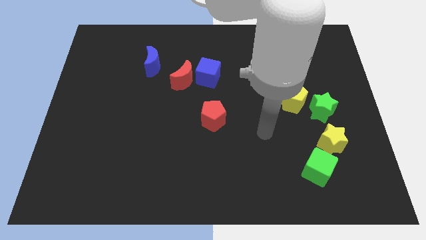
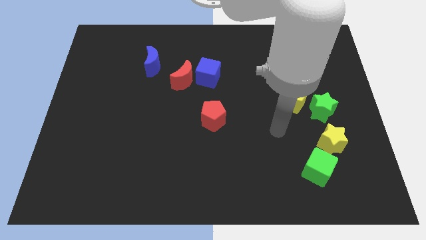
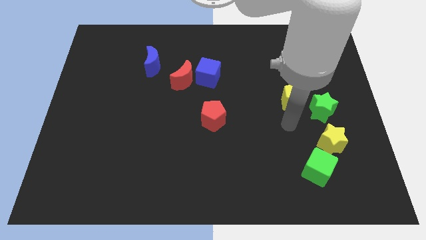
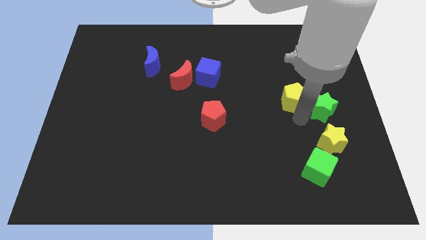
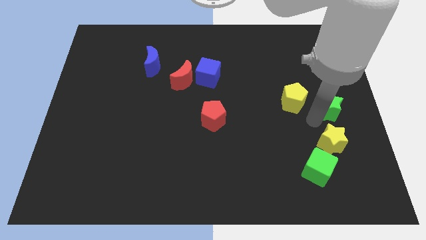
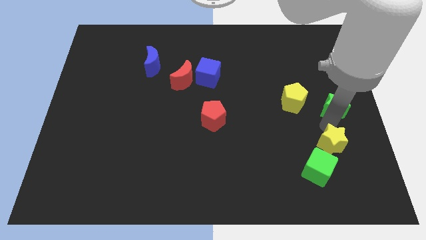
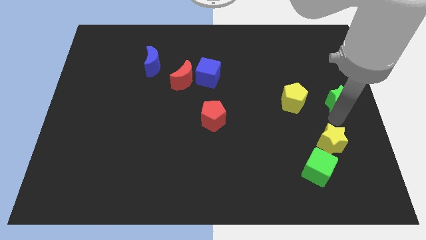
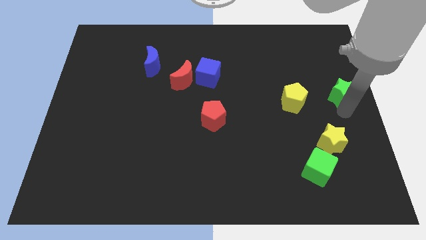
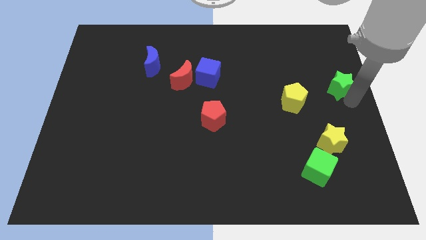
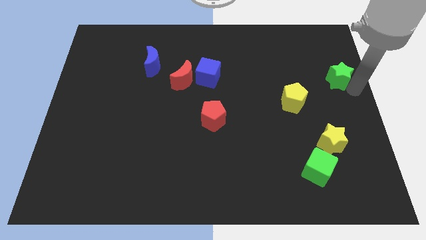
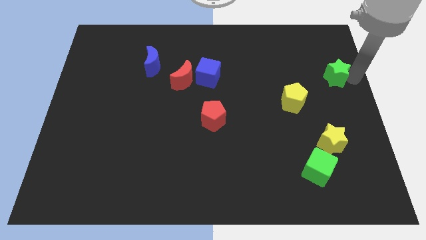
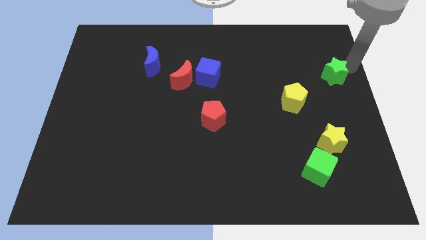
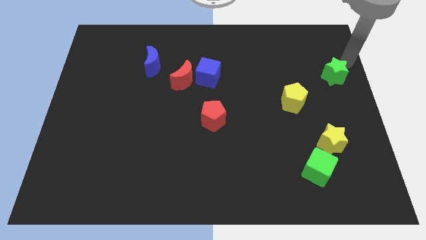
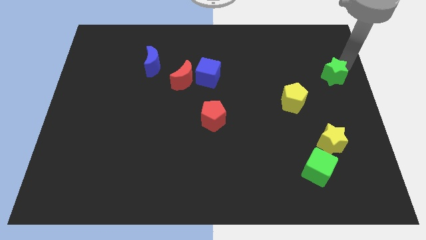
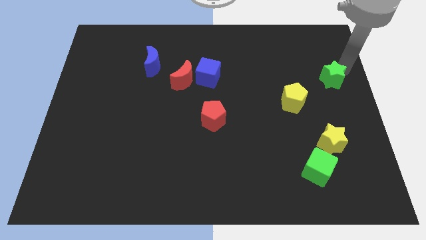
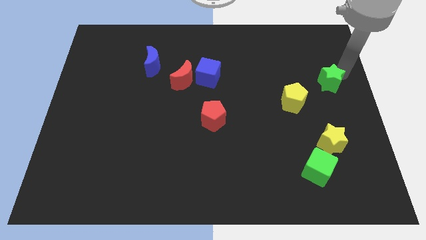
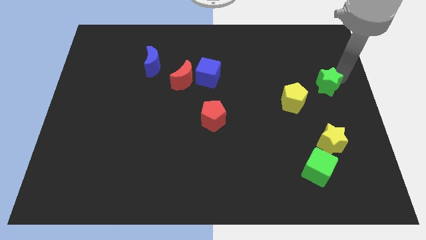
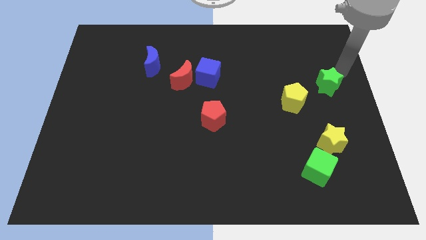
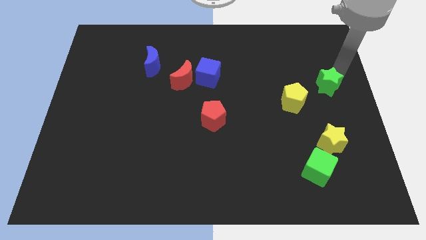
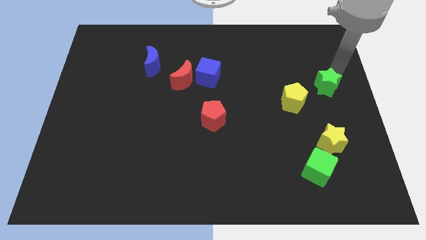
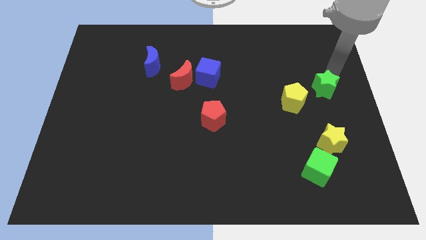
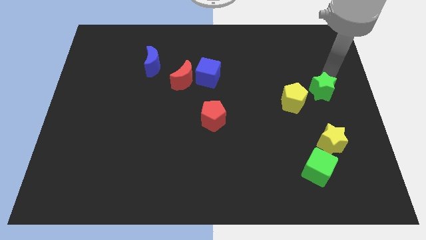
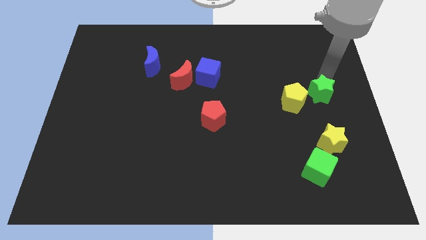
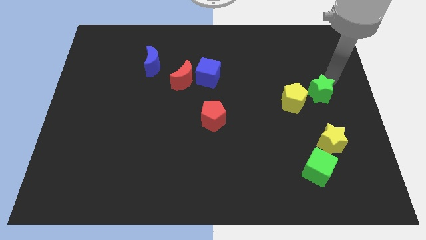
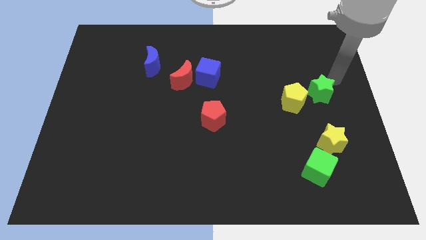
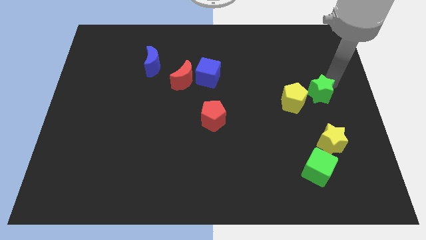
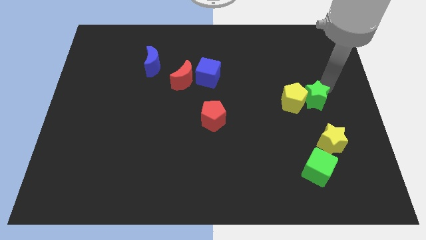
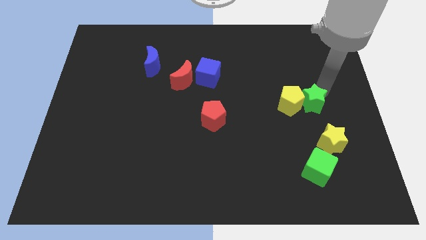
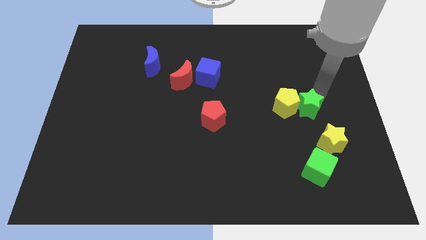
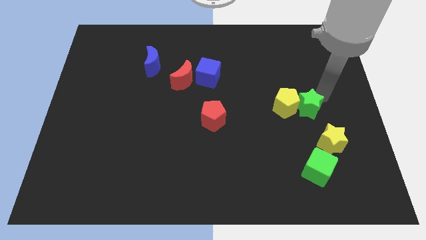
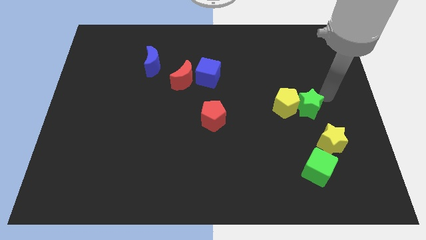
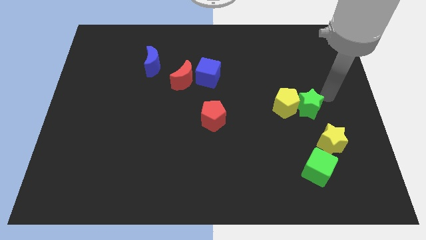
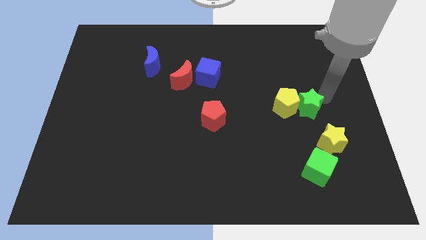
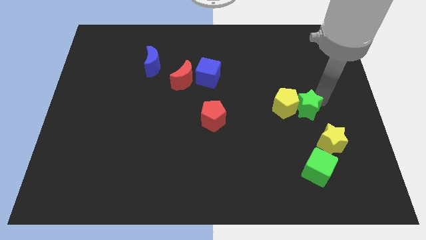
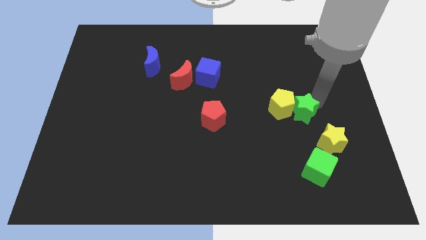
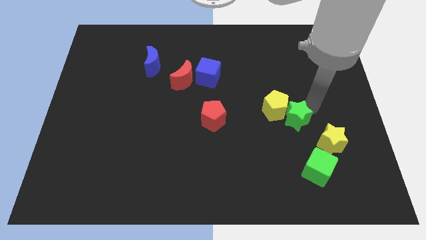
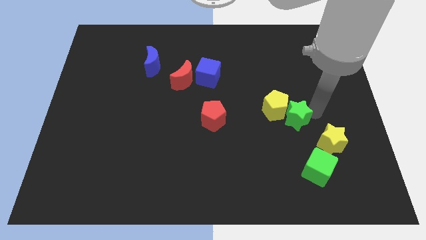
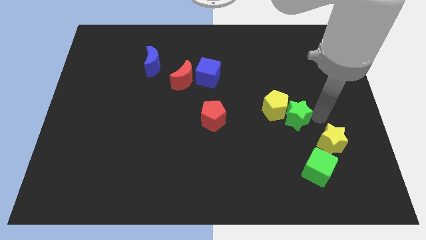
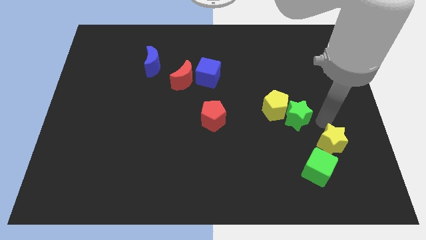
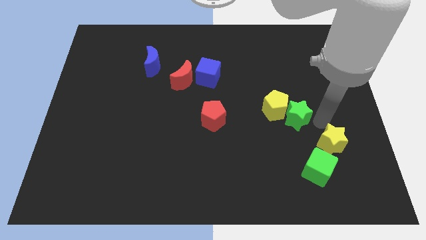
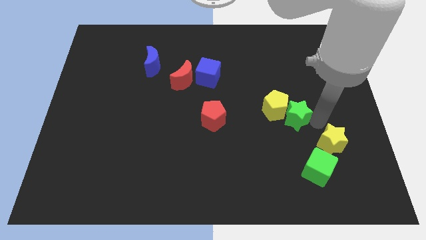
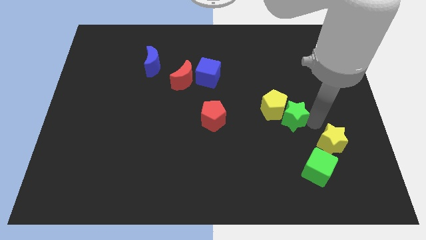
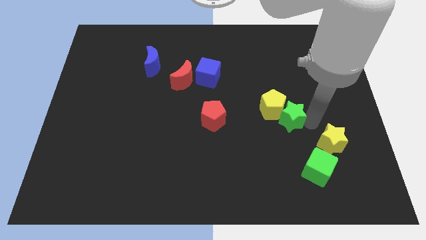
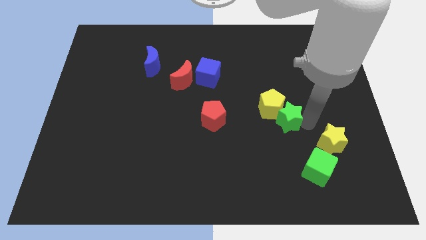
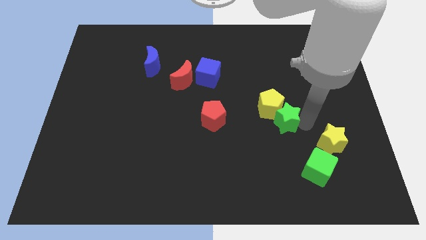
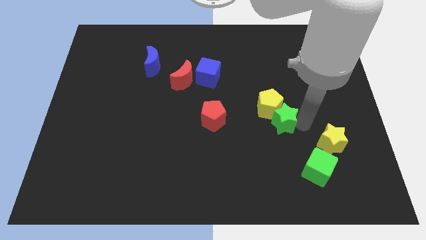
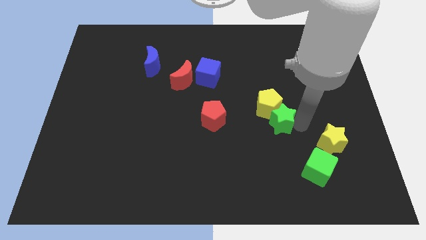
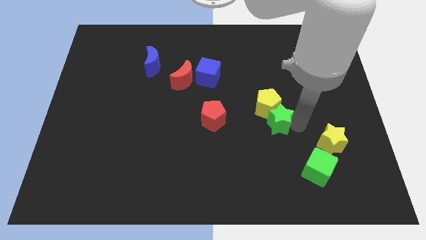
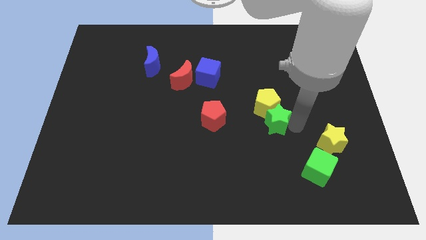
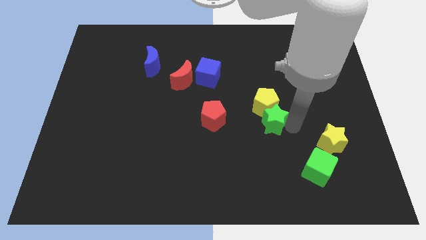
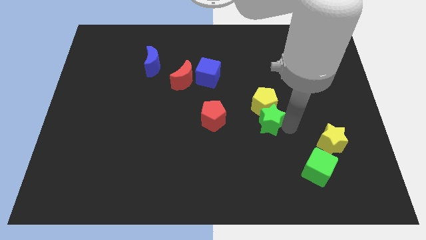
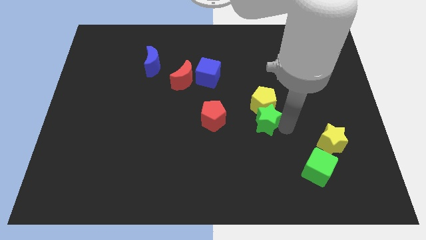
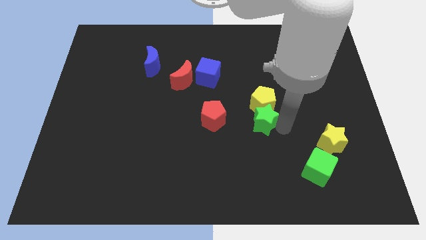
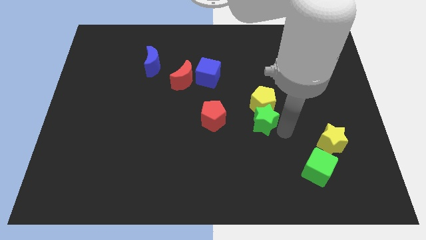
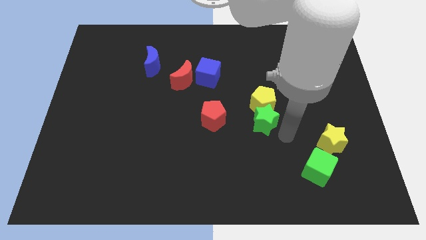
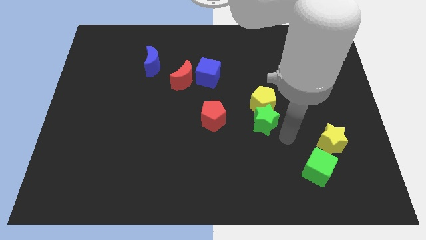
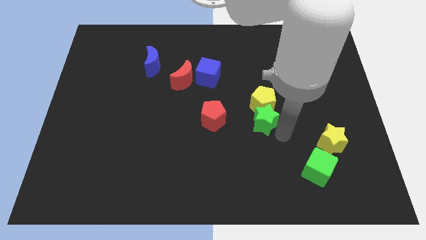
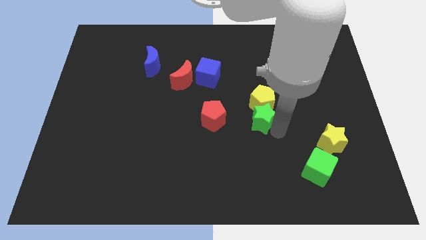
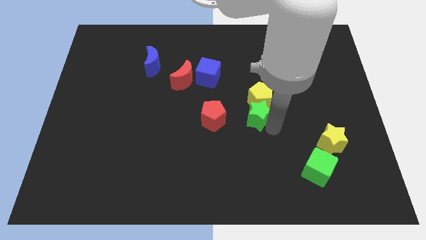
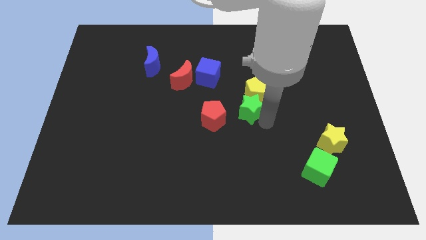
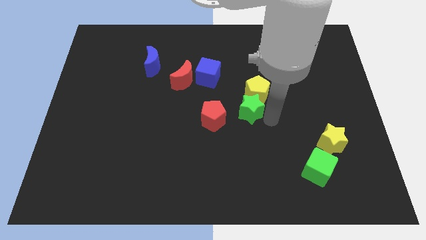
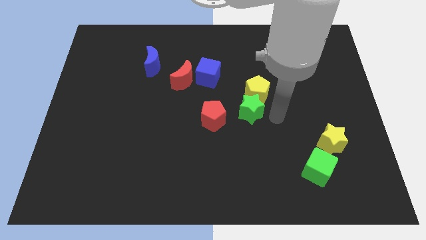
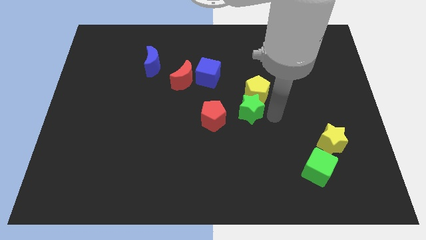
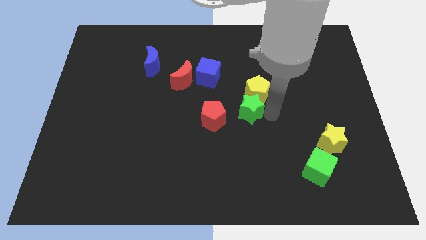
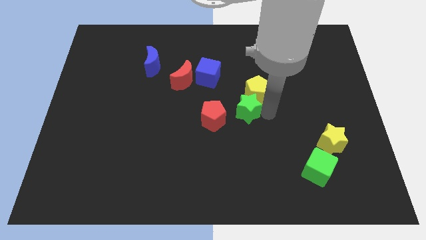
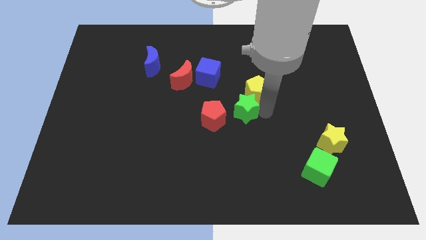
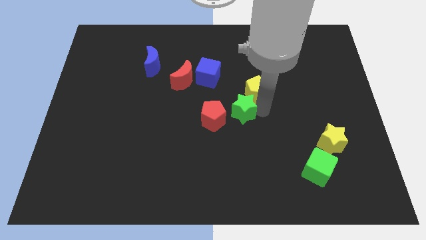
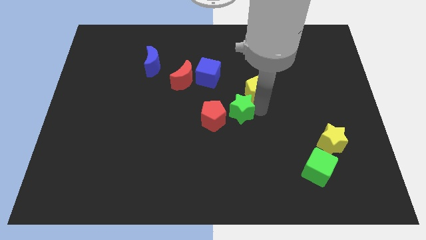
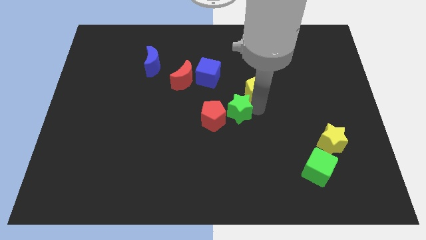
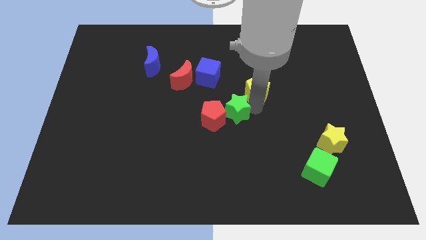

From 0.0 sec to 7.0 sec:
slide the green star left

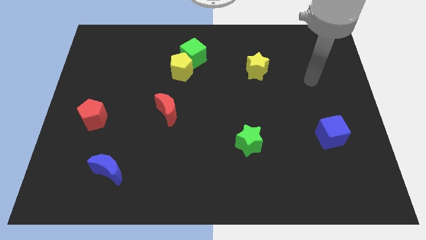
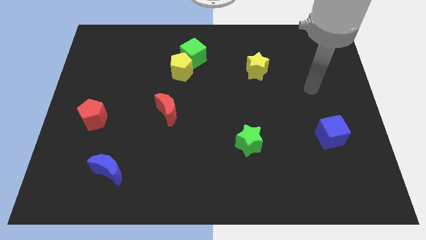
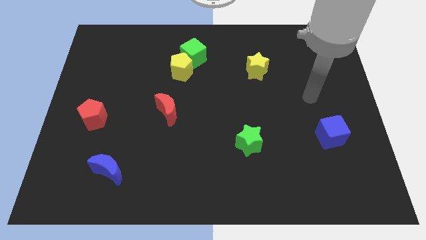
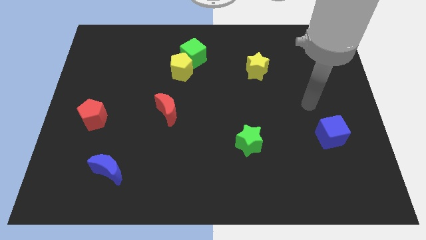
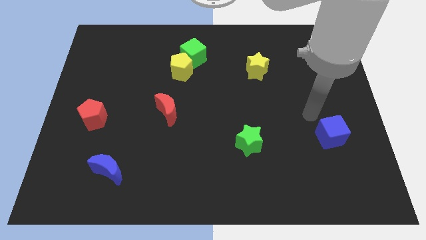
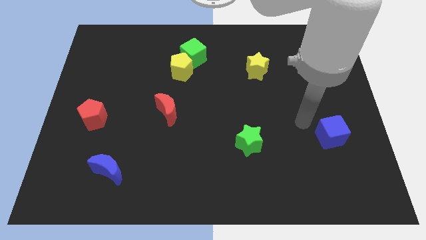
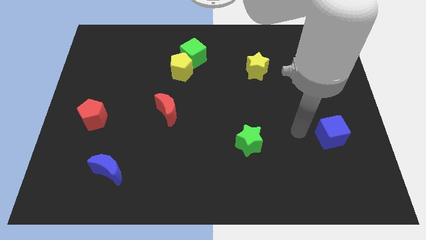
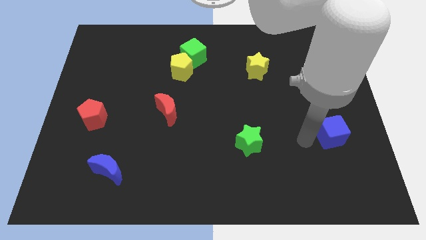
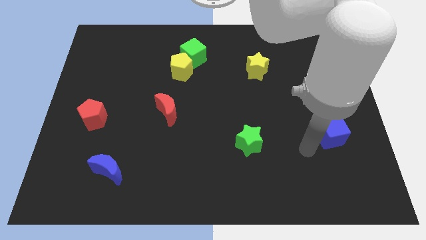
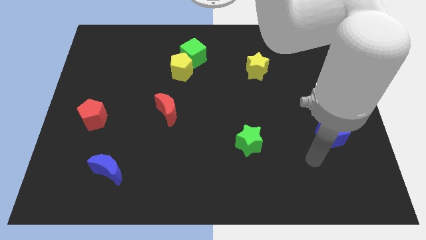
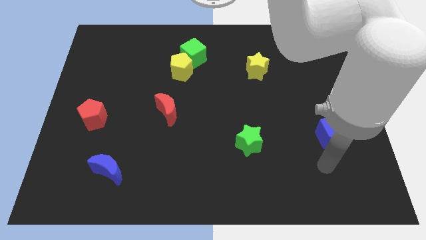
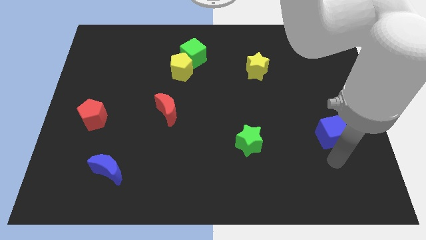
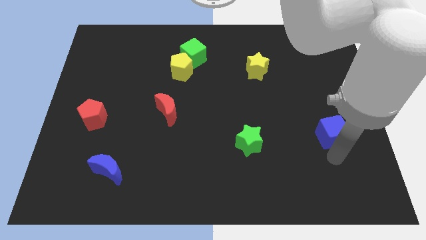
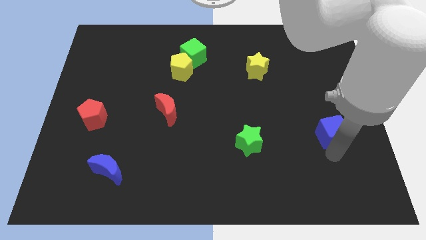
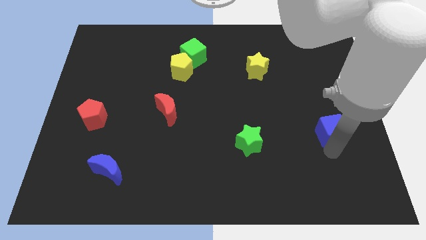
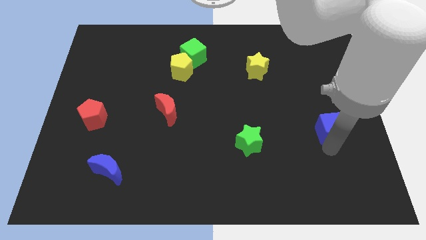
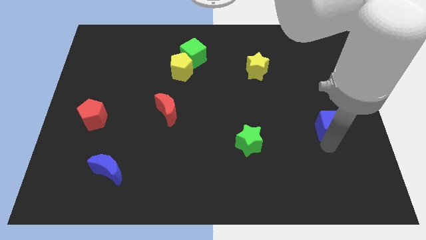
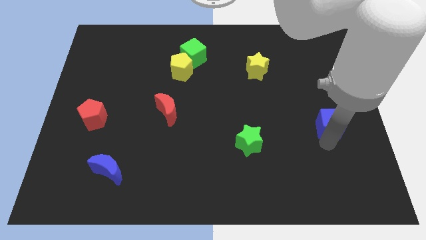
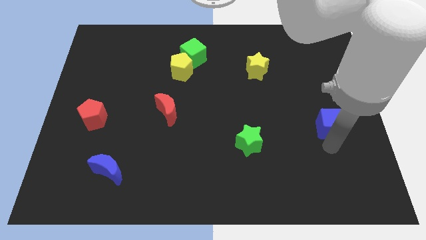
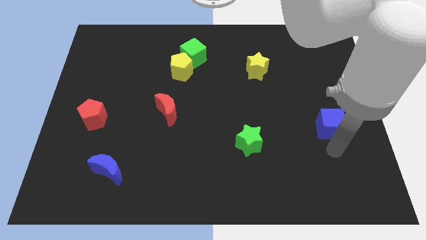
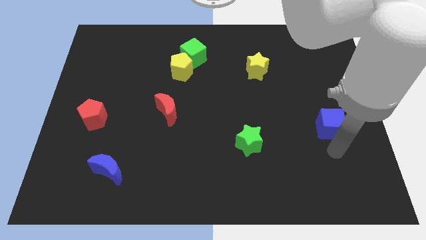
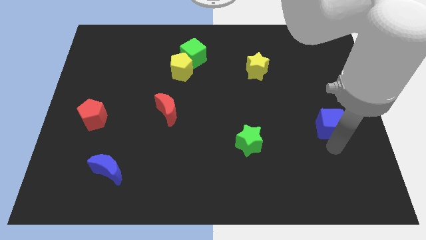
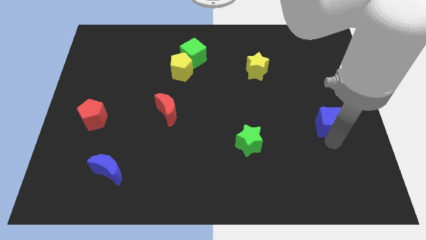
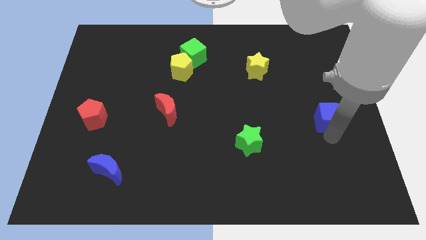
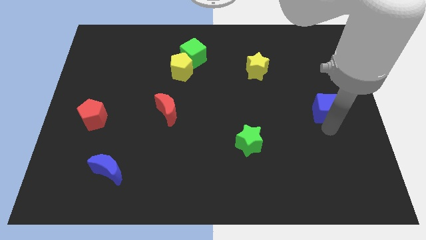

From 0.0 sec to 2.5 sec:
slightly move the blue cube upwards
